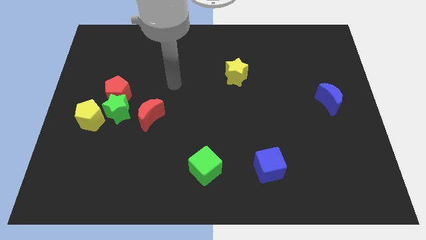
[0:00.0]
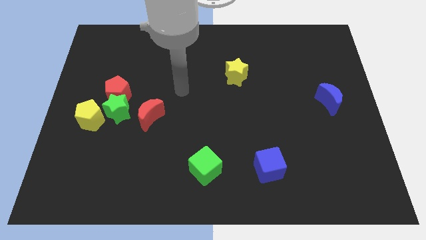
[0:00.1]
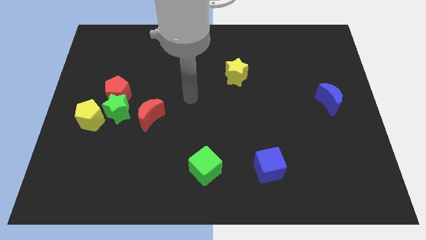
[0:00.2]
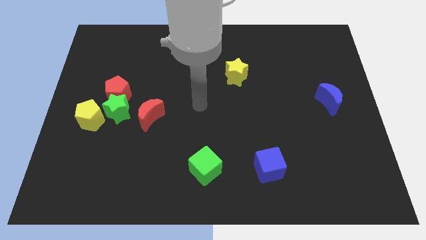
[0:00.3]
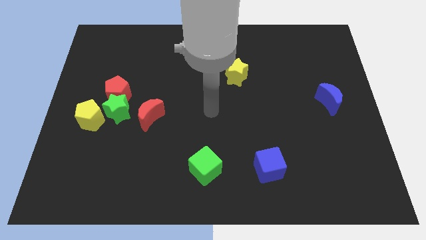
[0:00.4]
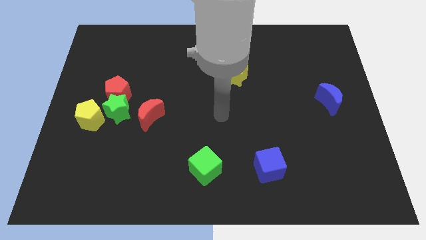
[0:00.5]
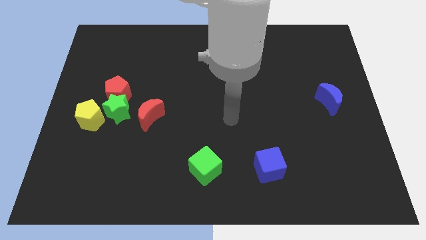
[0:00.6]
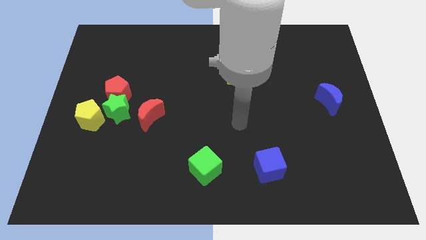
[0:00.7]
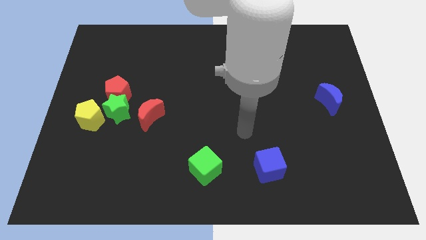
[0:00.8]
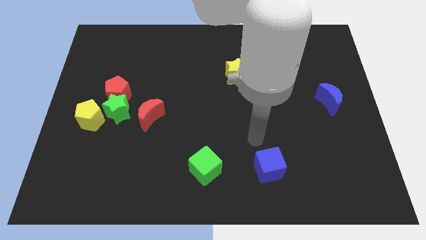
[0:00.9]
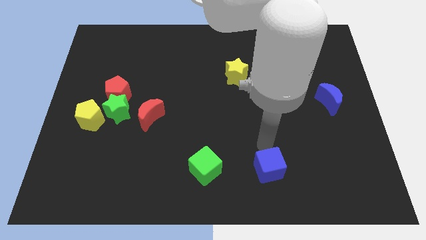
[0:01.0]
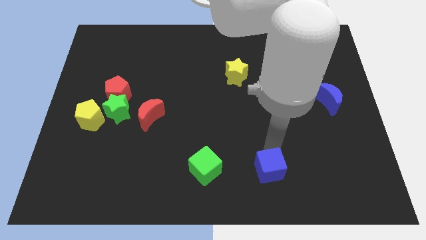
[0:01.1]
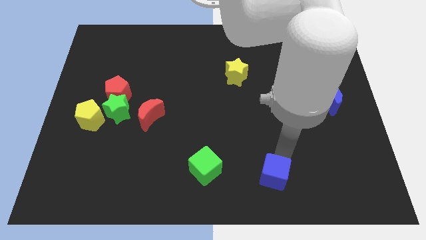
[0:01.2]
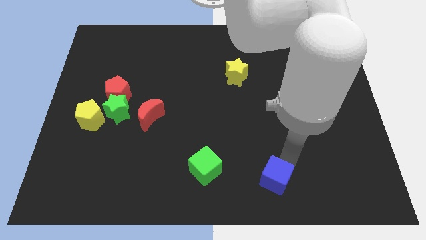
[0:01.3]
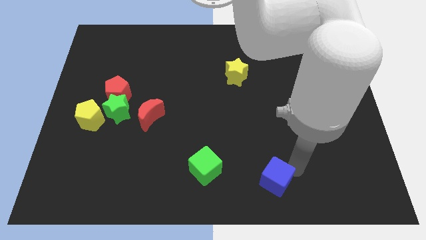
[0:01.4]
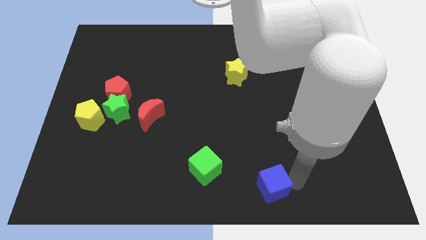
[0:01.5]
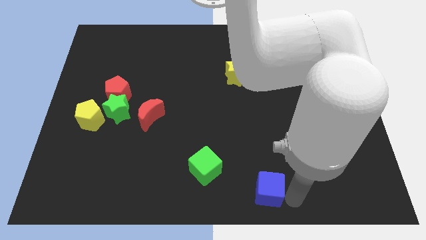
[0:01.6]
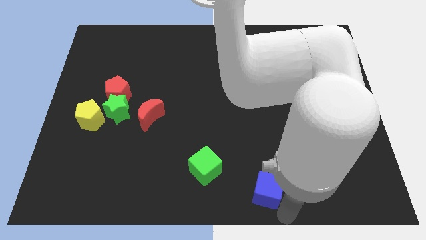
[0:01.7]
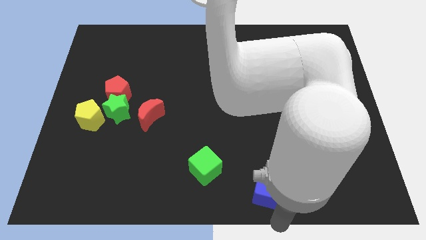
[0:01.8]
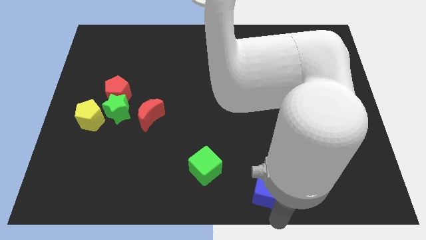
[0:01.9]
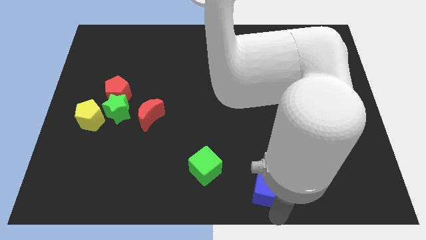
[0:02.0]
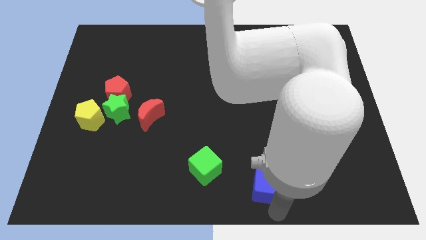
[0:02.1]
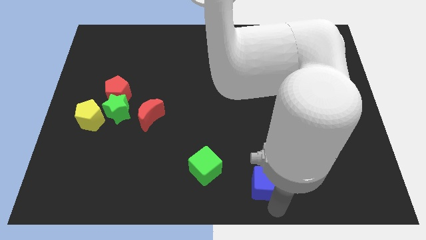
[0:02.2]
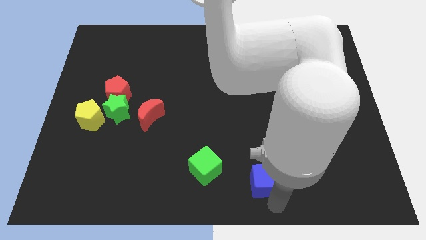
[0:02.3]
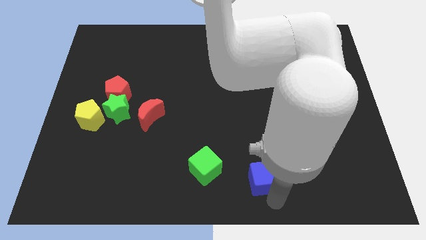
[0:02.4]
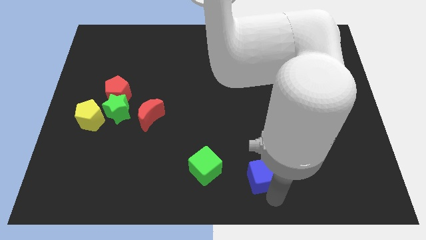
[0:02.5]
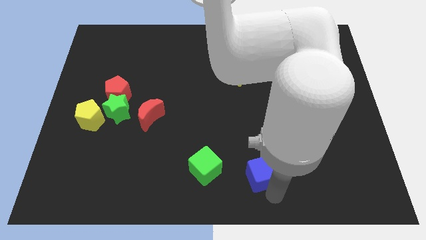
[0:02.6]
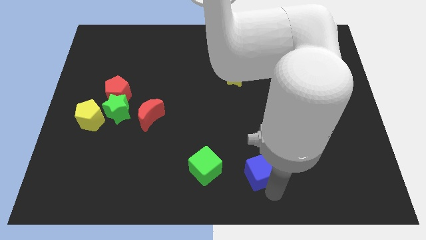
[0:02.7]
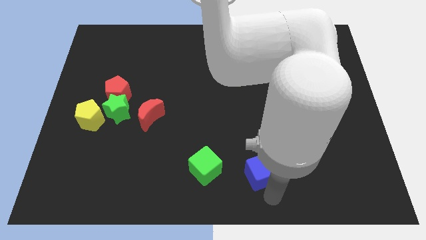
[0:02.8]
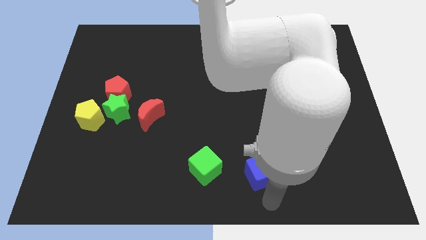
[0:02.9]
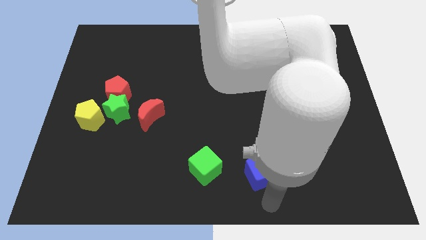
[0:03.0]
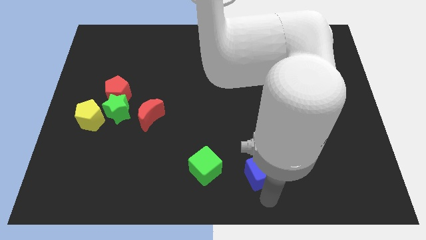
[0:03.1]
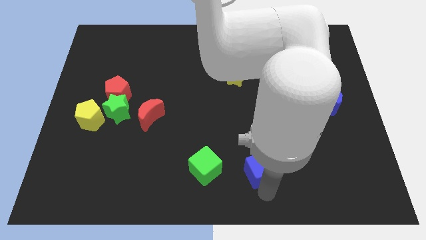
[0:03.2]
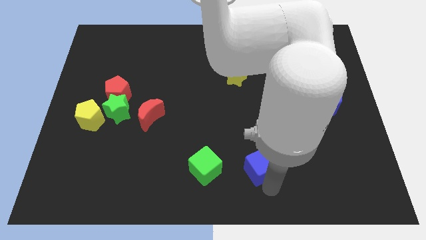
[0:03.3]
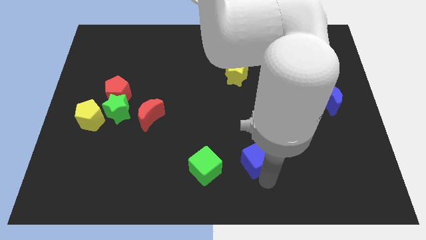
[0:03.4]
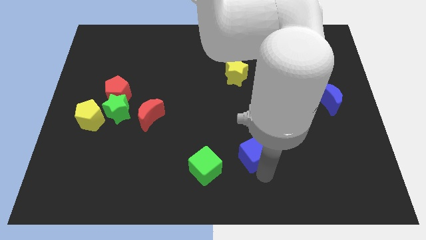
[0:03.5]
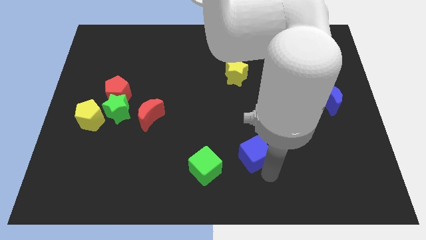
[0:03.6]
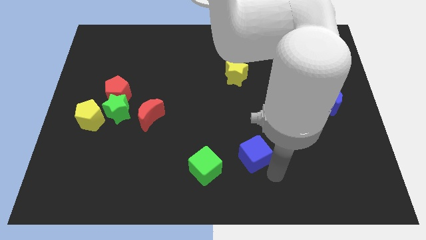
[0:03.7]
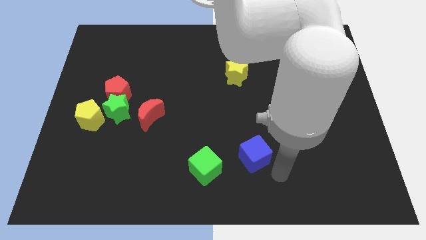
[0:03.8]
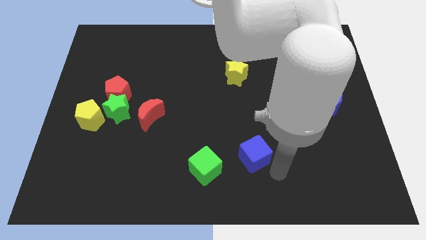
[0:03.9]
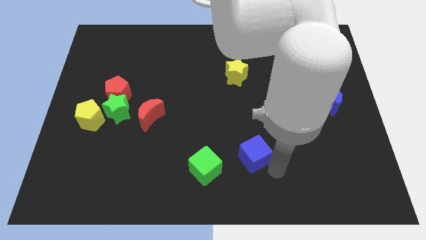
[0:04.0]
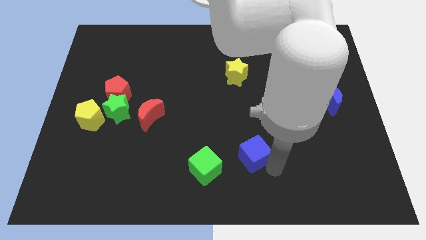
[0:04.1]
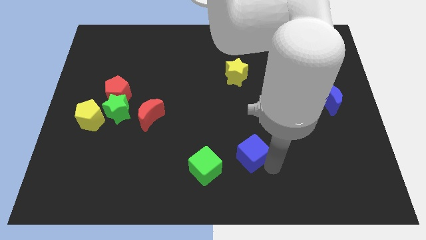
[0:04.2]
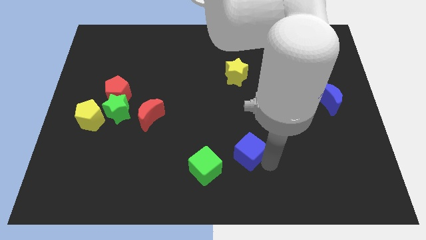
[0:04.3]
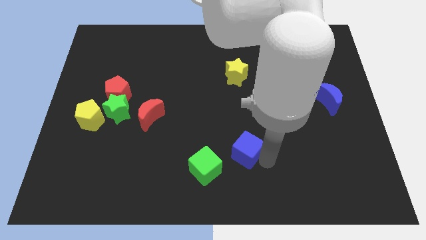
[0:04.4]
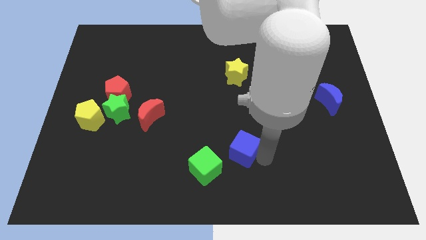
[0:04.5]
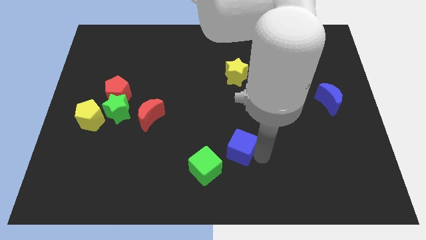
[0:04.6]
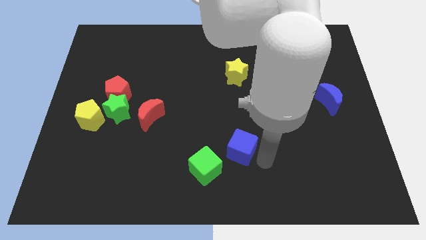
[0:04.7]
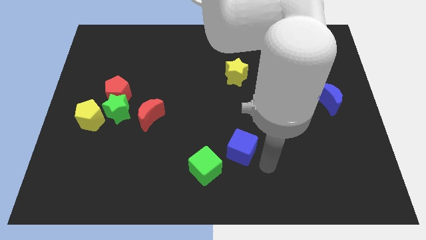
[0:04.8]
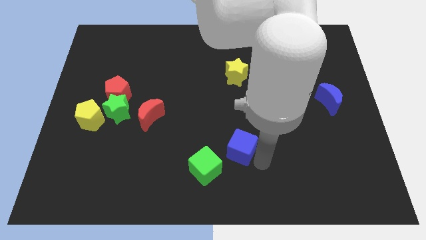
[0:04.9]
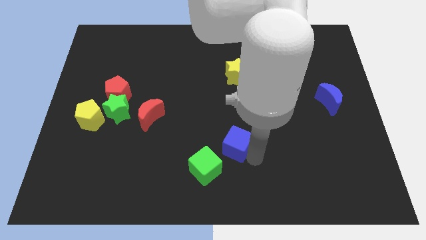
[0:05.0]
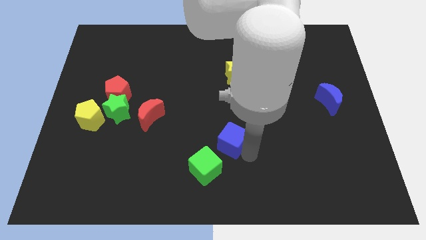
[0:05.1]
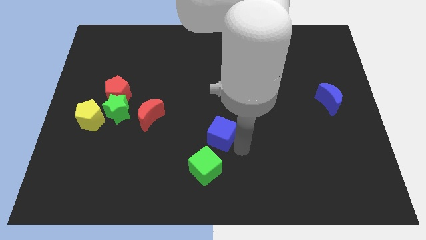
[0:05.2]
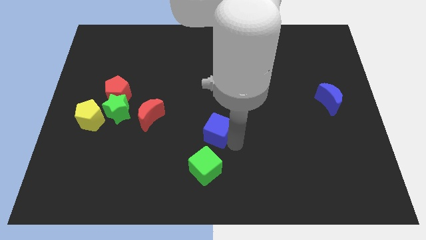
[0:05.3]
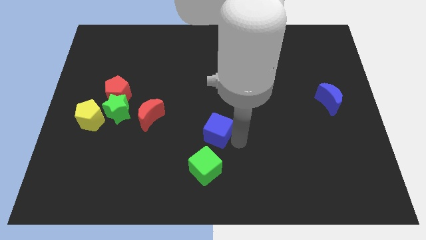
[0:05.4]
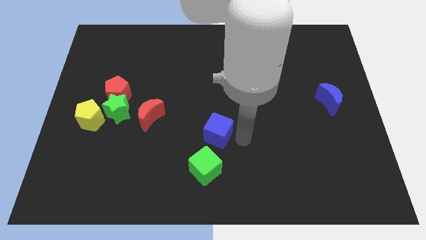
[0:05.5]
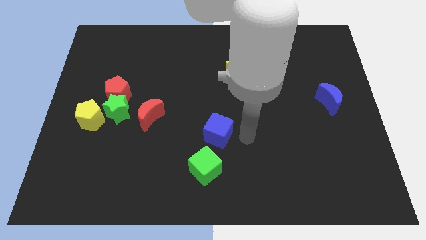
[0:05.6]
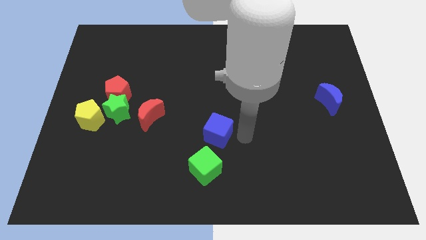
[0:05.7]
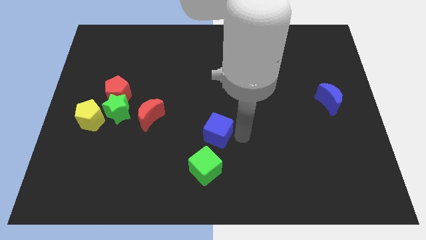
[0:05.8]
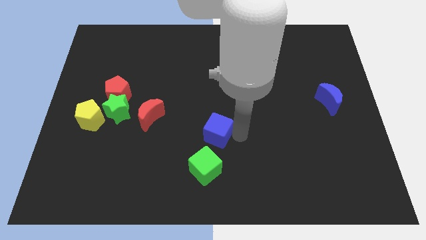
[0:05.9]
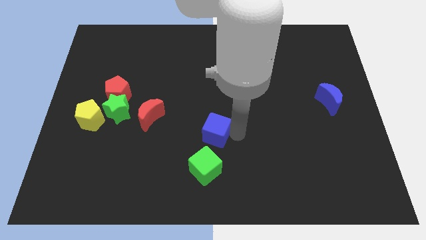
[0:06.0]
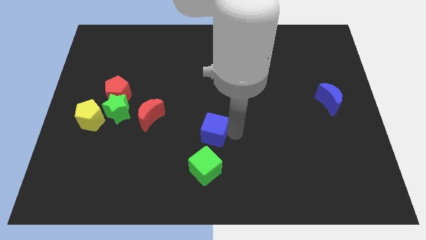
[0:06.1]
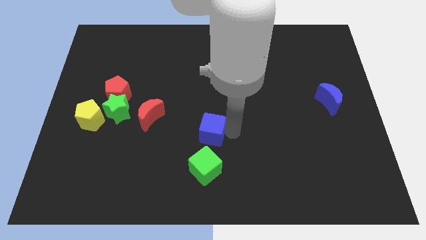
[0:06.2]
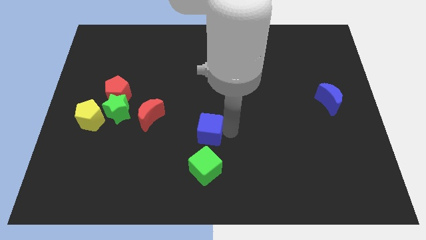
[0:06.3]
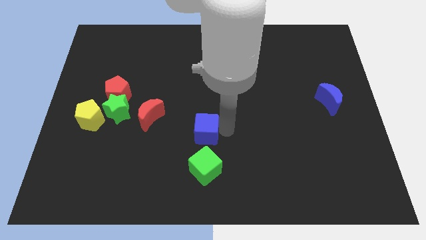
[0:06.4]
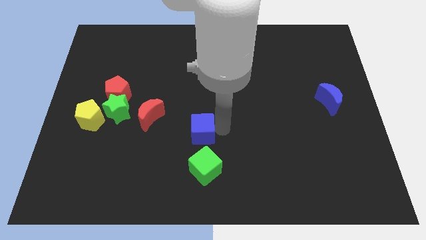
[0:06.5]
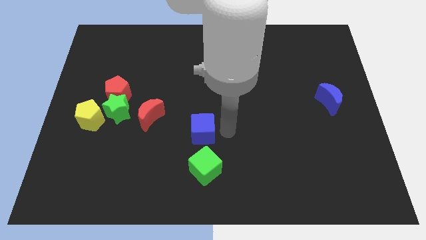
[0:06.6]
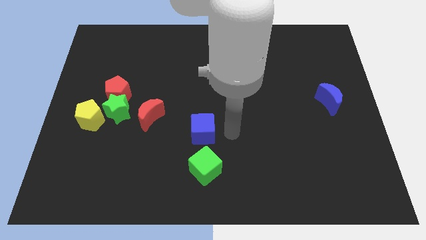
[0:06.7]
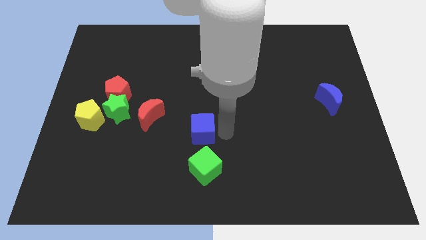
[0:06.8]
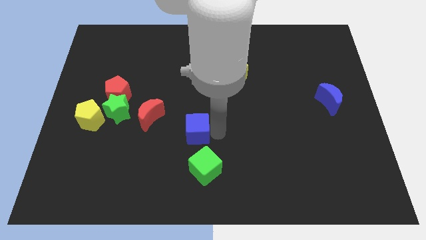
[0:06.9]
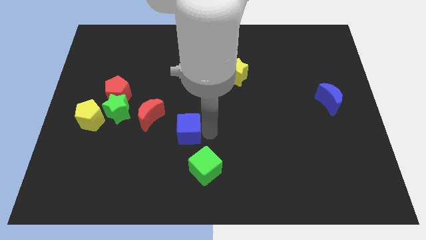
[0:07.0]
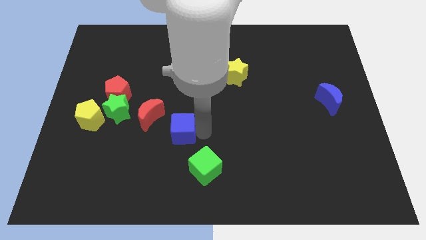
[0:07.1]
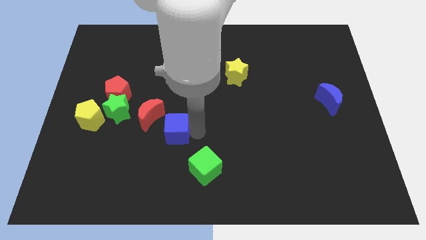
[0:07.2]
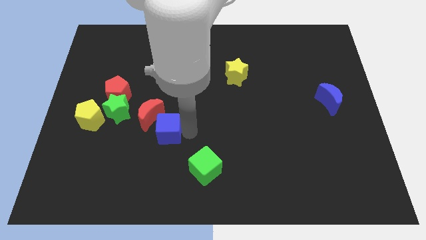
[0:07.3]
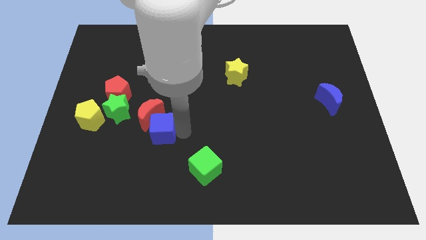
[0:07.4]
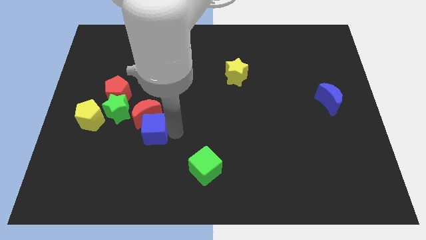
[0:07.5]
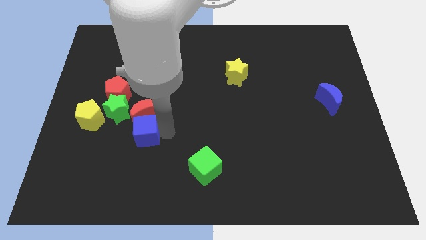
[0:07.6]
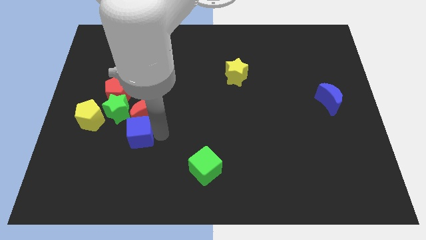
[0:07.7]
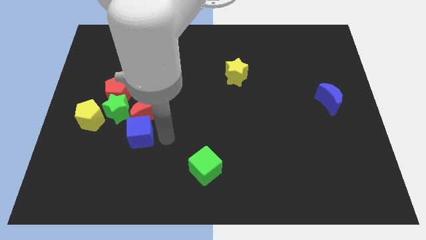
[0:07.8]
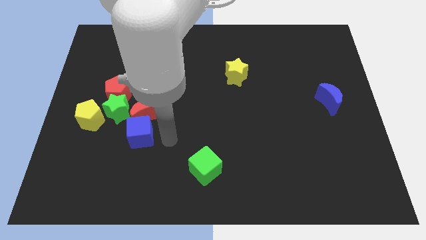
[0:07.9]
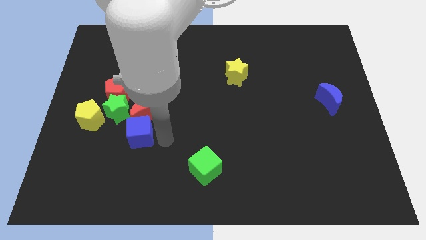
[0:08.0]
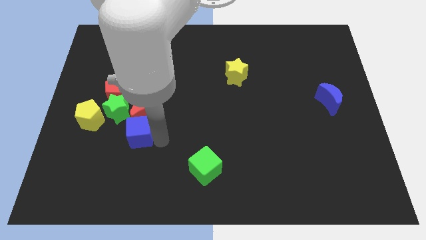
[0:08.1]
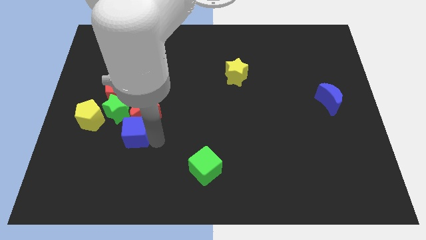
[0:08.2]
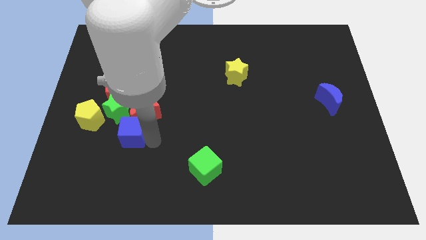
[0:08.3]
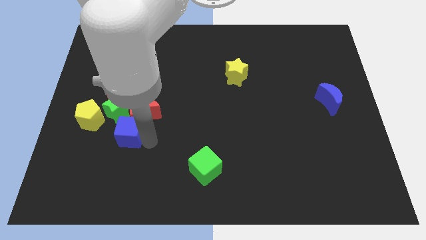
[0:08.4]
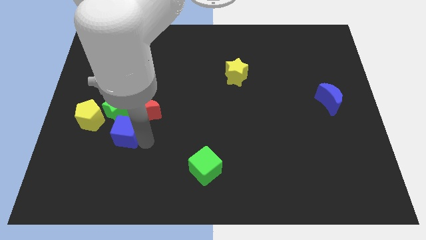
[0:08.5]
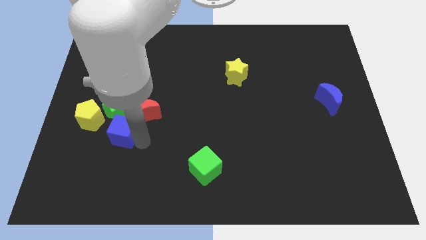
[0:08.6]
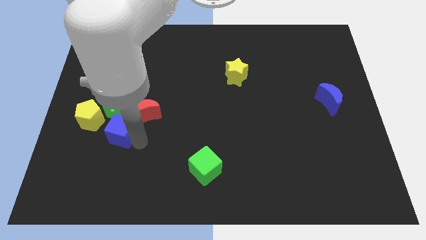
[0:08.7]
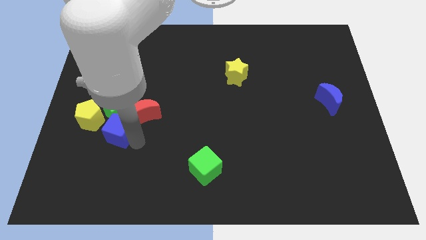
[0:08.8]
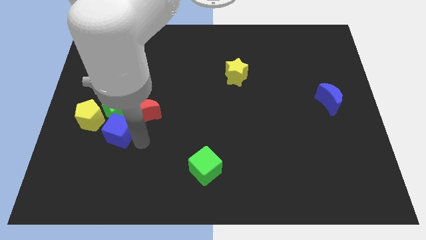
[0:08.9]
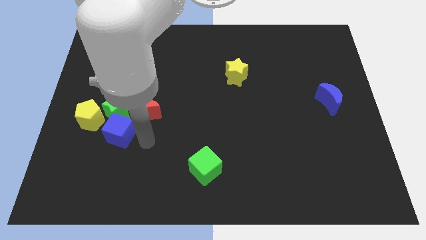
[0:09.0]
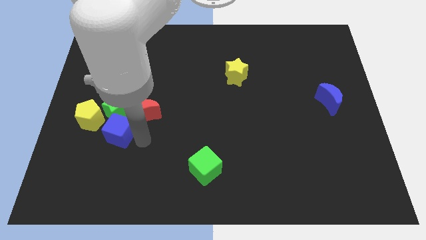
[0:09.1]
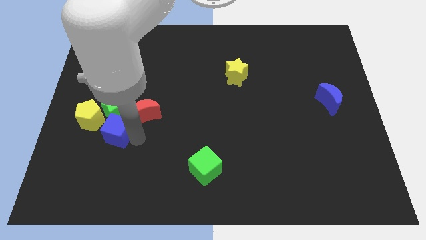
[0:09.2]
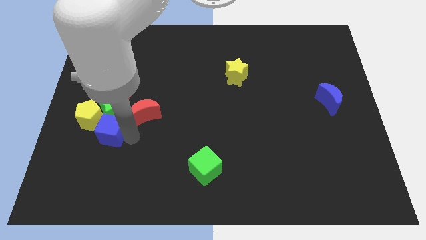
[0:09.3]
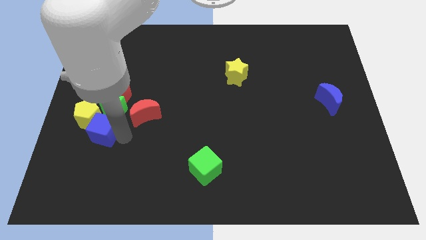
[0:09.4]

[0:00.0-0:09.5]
push the blue cube towards the yellow pentagon
